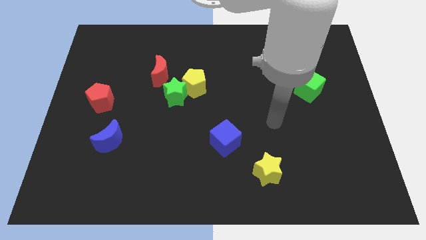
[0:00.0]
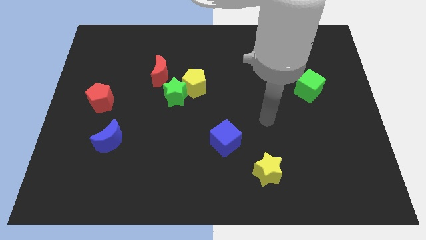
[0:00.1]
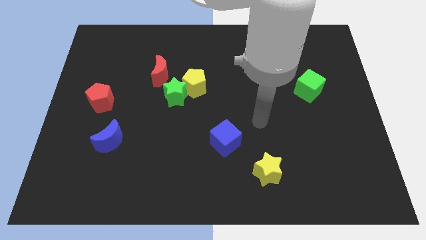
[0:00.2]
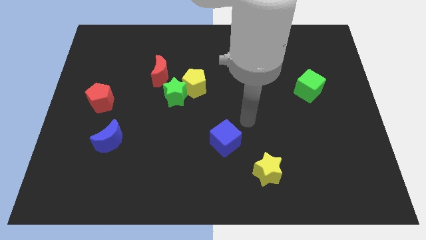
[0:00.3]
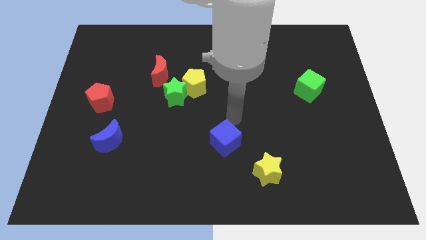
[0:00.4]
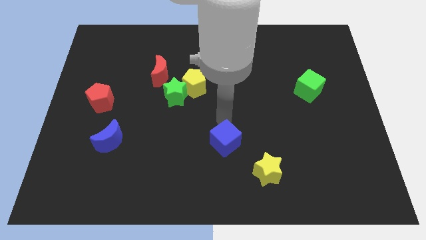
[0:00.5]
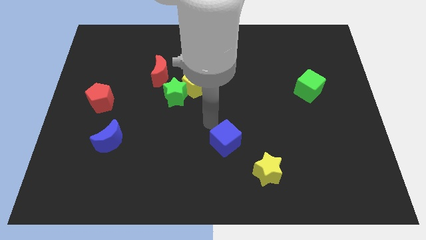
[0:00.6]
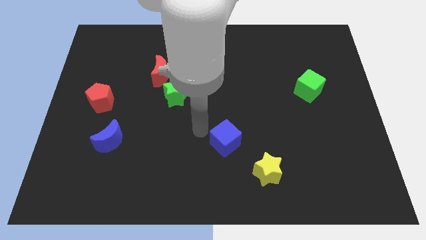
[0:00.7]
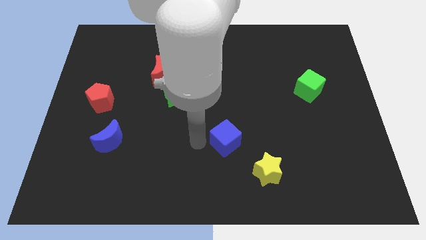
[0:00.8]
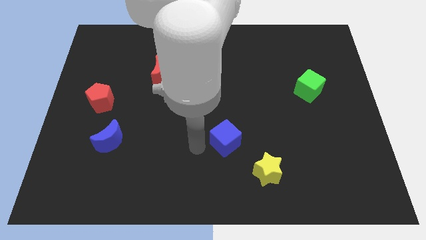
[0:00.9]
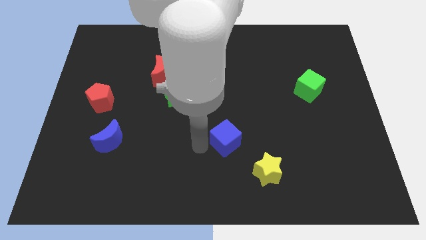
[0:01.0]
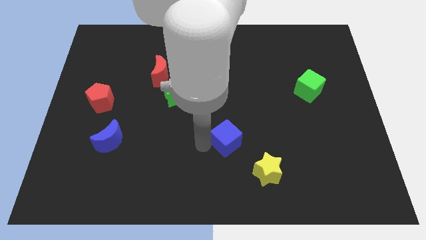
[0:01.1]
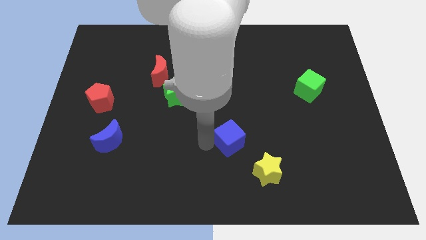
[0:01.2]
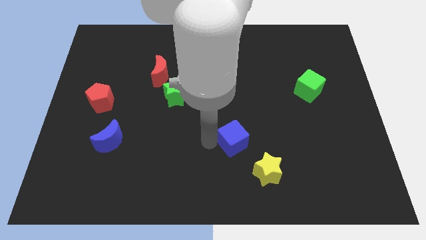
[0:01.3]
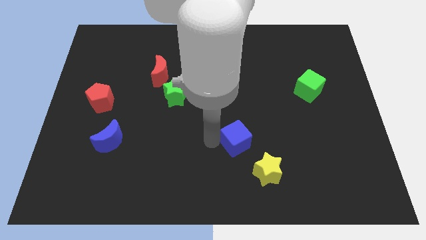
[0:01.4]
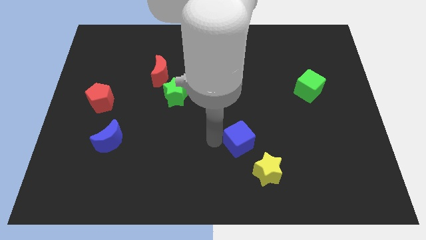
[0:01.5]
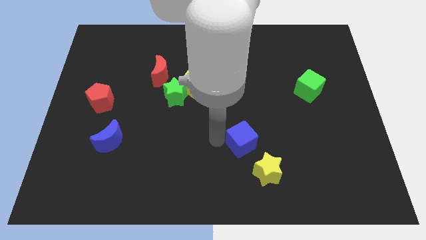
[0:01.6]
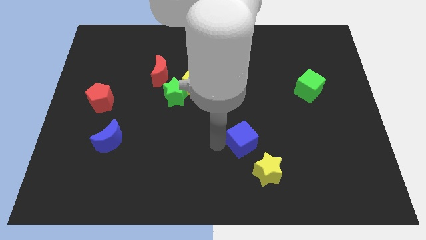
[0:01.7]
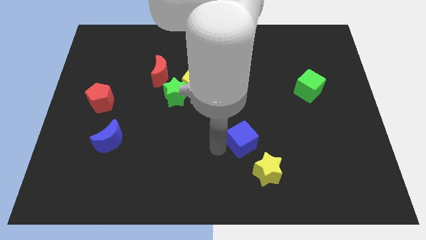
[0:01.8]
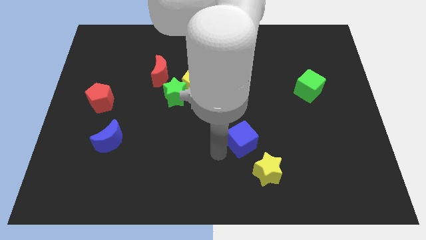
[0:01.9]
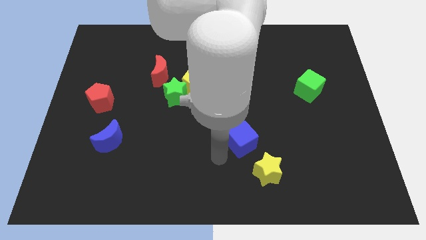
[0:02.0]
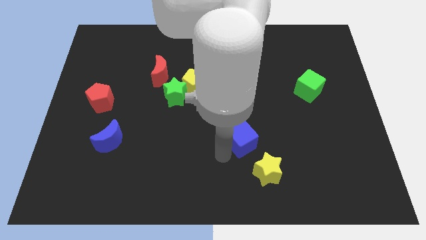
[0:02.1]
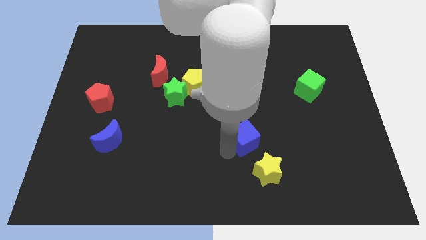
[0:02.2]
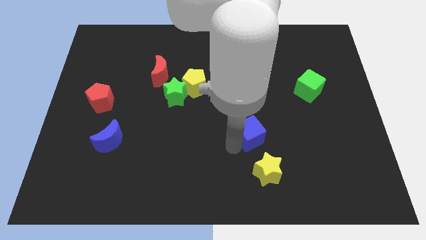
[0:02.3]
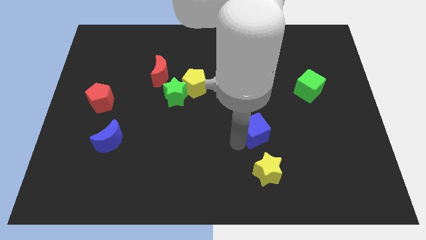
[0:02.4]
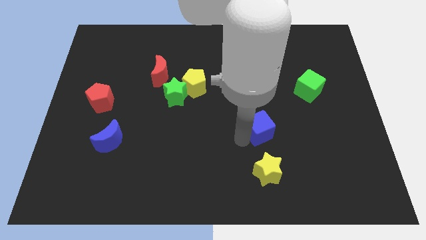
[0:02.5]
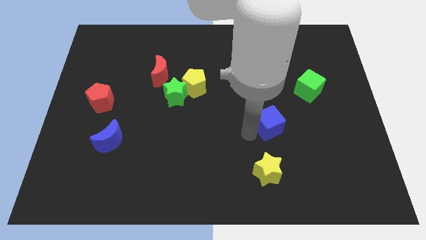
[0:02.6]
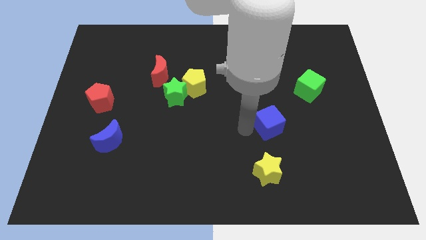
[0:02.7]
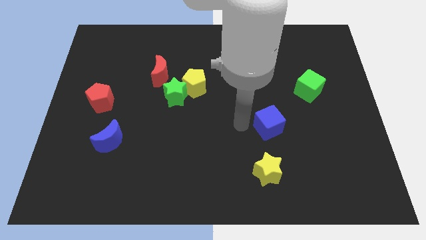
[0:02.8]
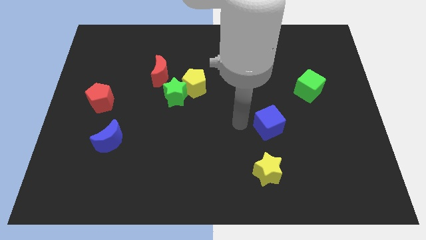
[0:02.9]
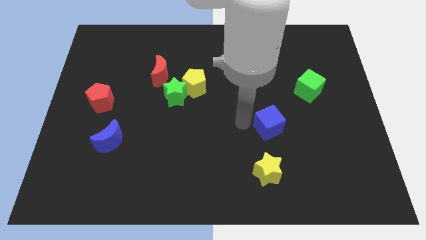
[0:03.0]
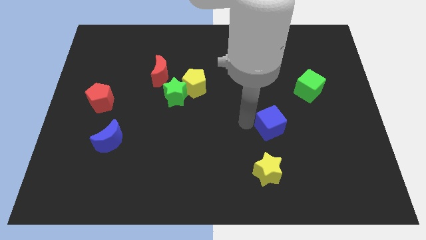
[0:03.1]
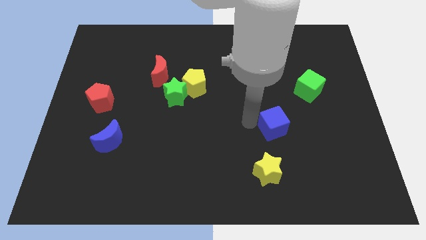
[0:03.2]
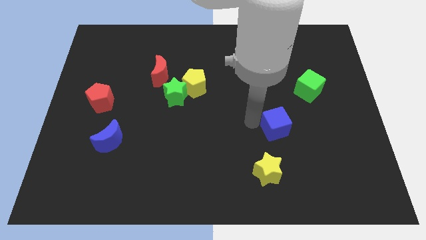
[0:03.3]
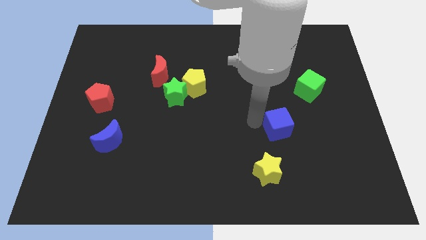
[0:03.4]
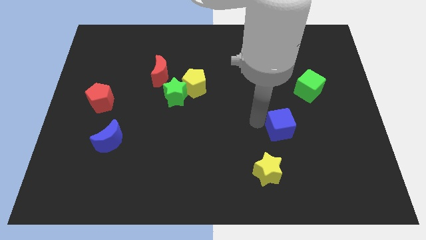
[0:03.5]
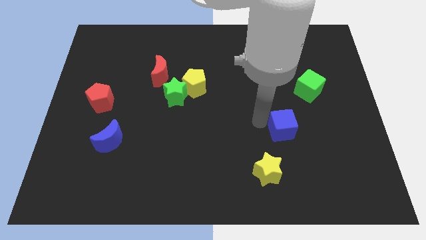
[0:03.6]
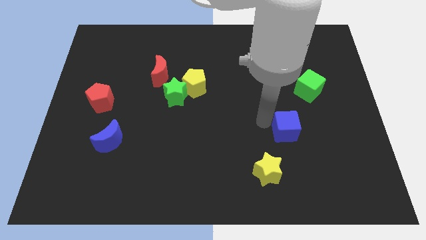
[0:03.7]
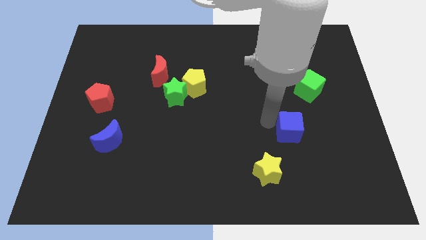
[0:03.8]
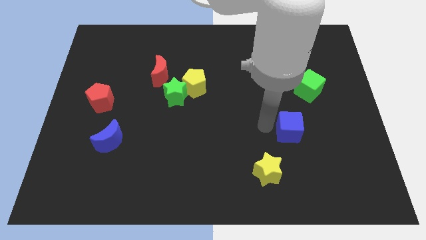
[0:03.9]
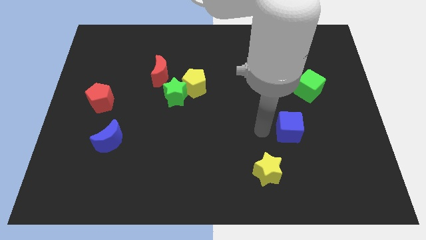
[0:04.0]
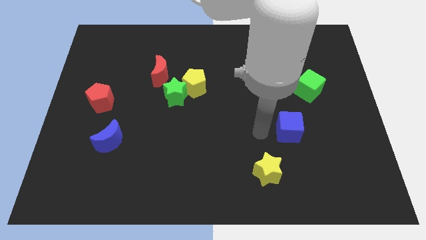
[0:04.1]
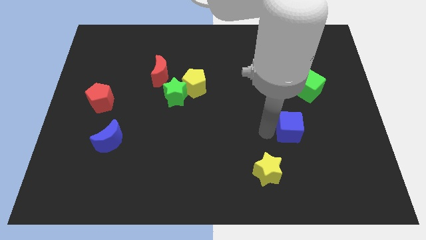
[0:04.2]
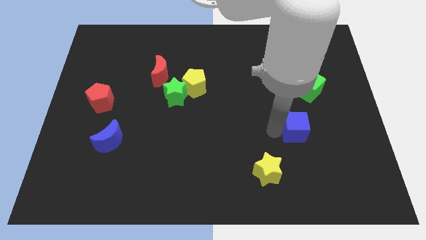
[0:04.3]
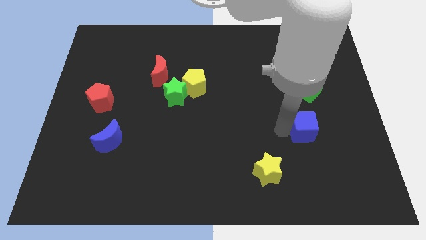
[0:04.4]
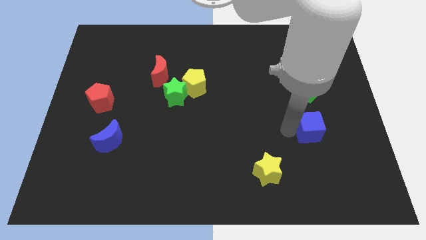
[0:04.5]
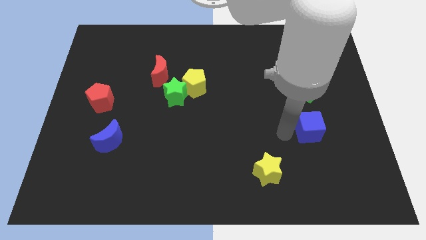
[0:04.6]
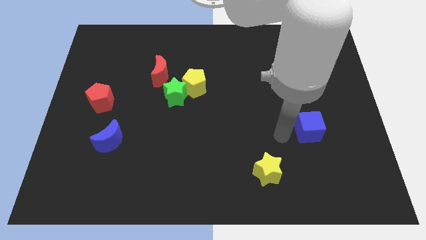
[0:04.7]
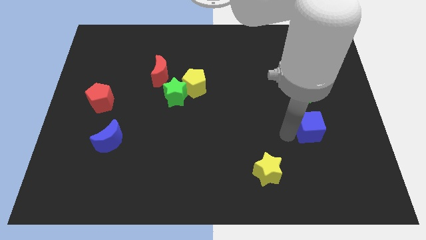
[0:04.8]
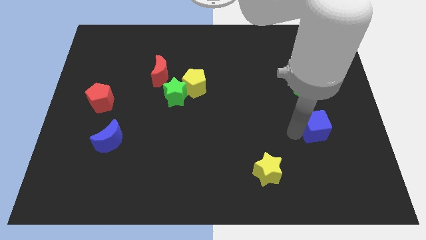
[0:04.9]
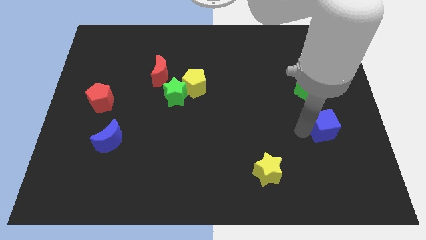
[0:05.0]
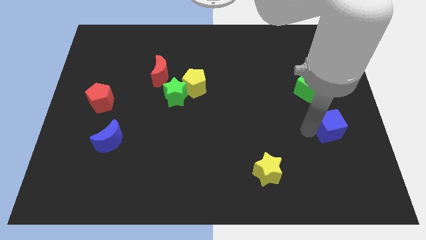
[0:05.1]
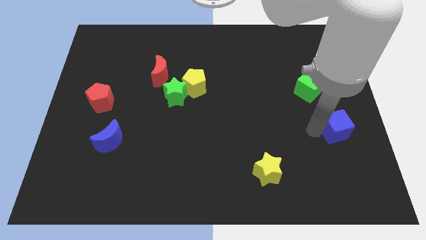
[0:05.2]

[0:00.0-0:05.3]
move the blue cube to the center right

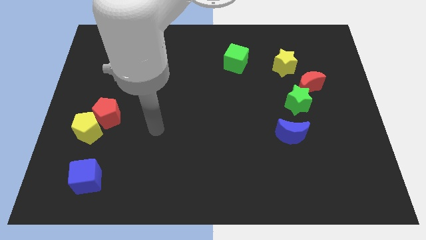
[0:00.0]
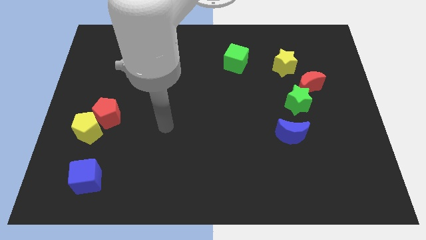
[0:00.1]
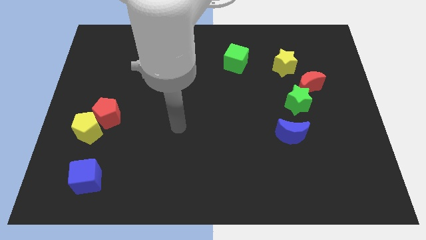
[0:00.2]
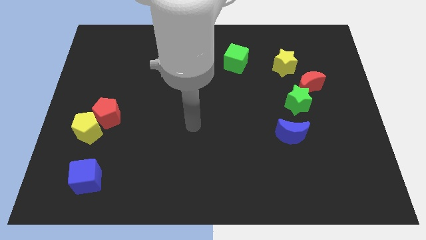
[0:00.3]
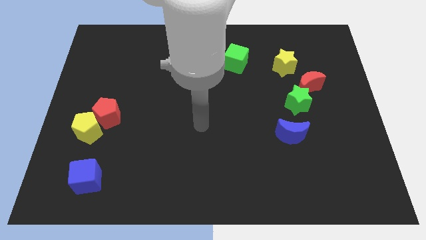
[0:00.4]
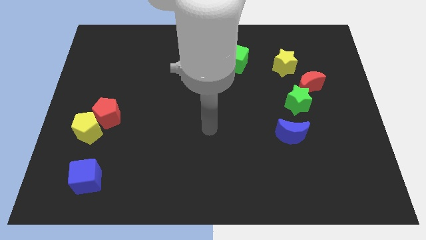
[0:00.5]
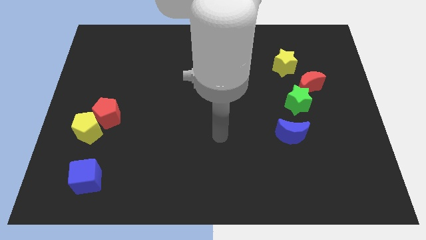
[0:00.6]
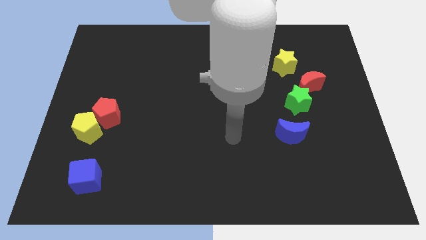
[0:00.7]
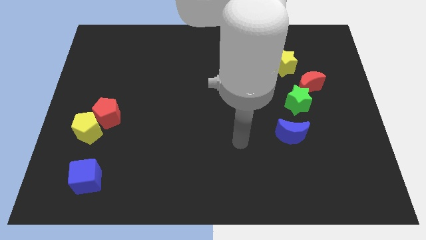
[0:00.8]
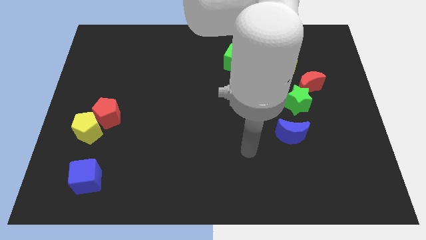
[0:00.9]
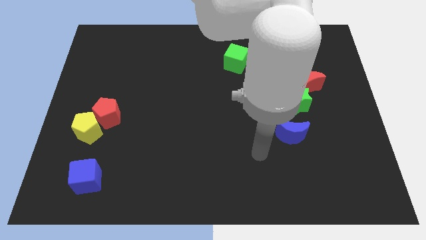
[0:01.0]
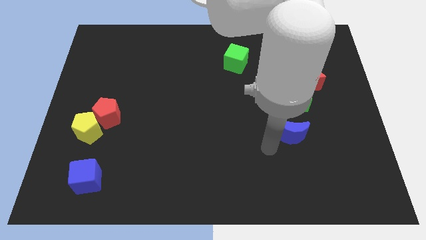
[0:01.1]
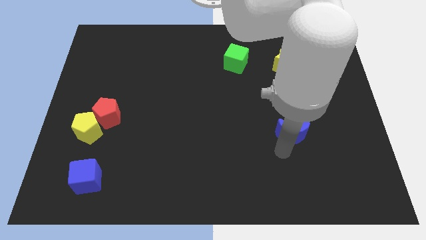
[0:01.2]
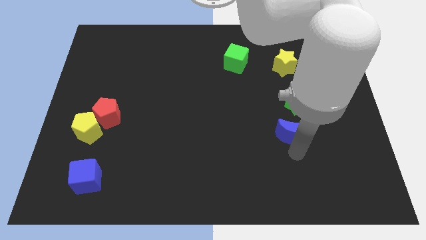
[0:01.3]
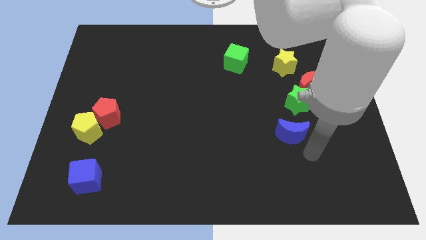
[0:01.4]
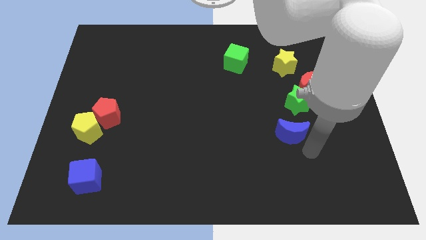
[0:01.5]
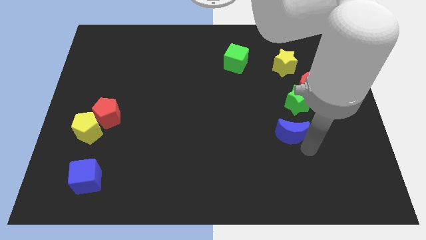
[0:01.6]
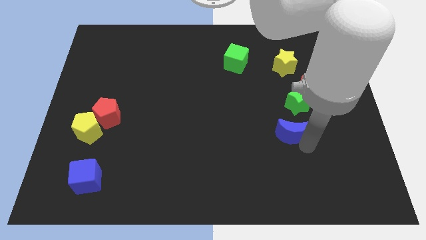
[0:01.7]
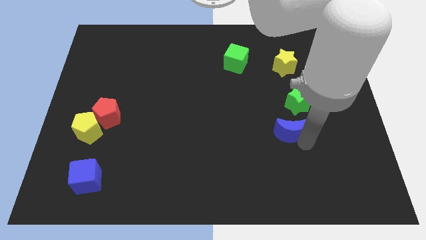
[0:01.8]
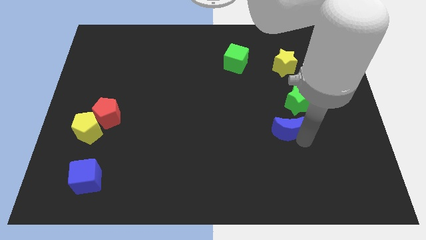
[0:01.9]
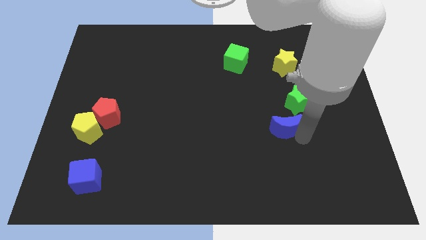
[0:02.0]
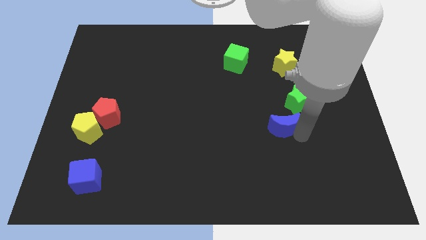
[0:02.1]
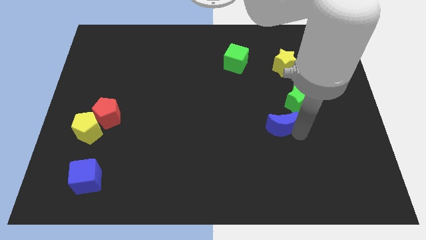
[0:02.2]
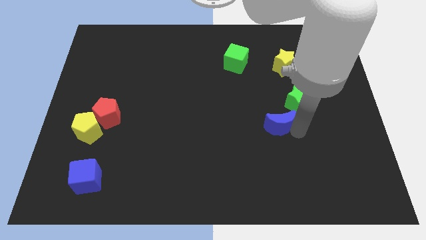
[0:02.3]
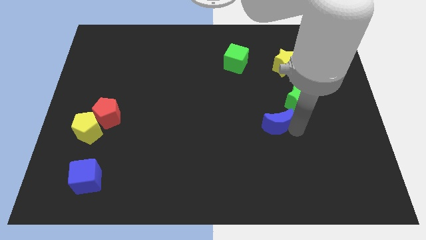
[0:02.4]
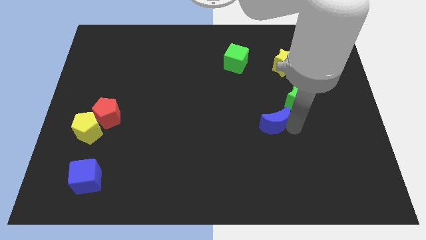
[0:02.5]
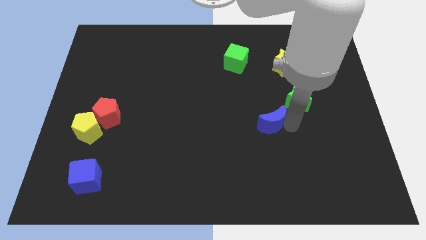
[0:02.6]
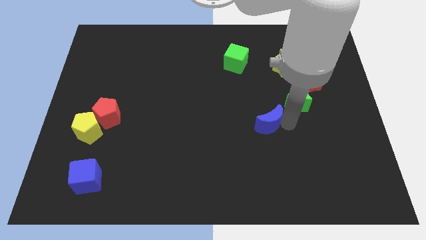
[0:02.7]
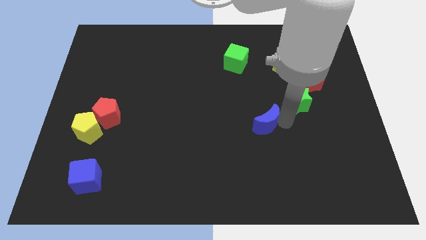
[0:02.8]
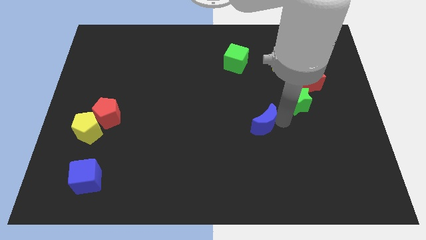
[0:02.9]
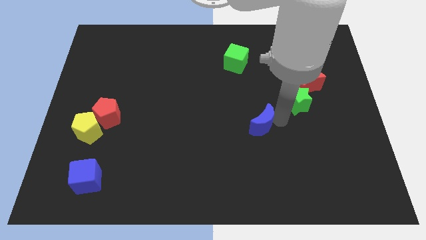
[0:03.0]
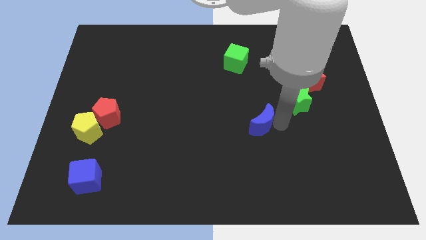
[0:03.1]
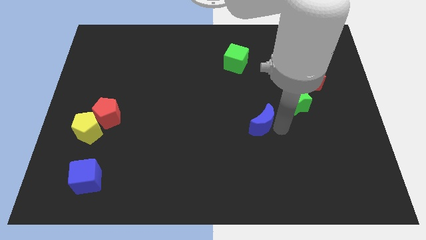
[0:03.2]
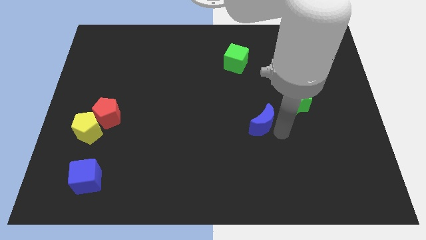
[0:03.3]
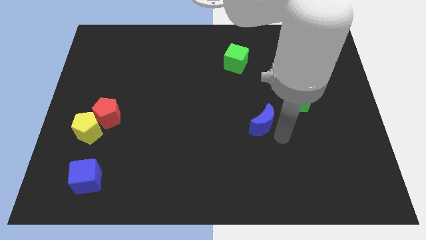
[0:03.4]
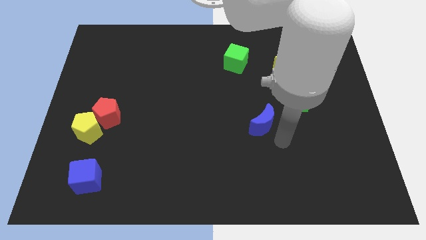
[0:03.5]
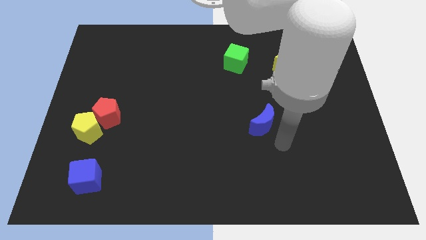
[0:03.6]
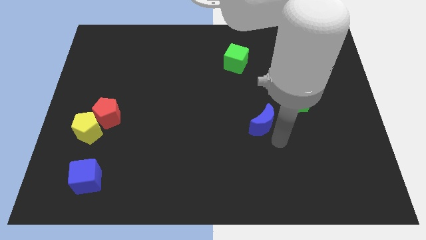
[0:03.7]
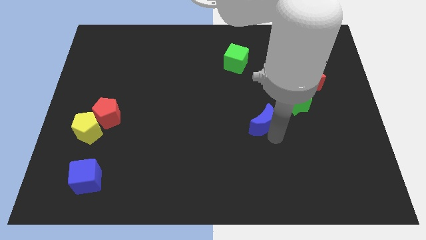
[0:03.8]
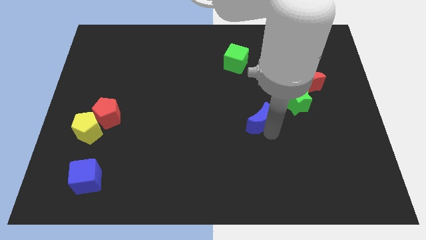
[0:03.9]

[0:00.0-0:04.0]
slide the blue moon to the middle of the board
